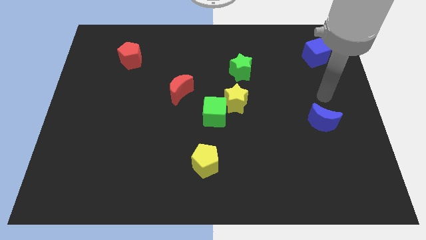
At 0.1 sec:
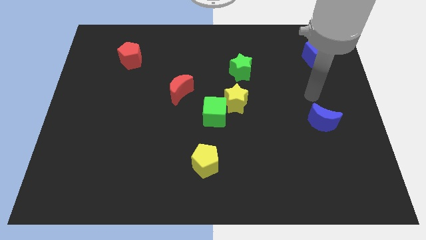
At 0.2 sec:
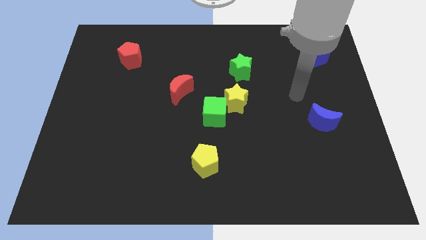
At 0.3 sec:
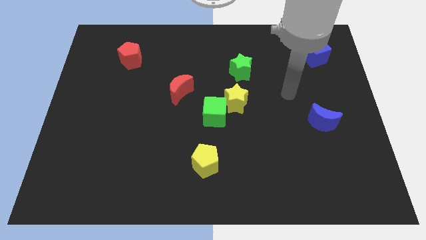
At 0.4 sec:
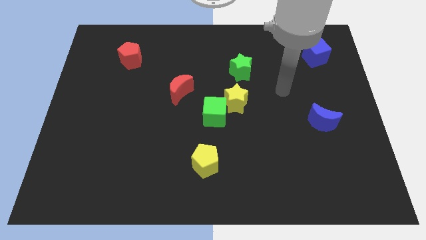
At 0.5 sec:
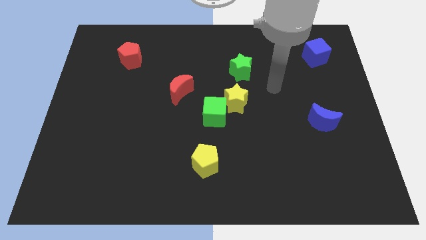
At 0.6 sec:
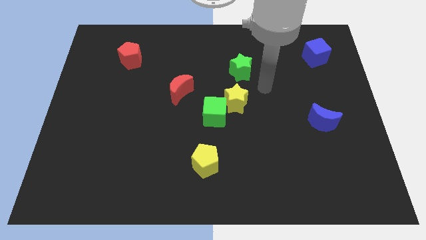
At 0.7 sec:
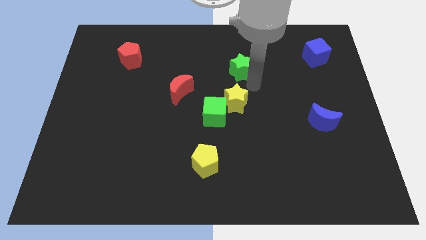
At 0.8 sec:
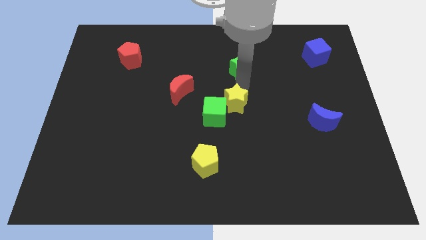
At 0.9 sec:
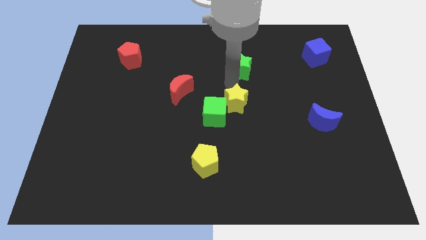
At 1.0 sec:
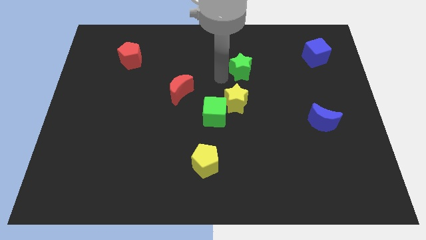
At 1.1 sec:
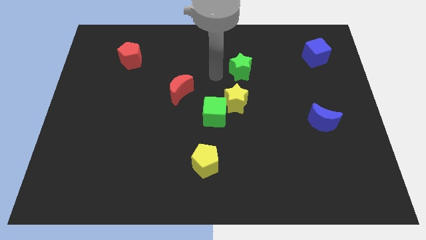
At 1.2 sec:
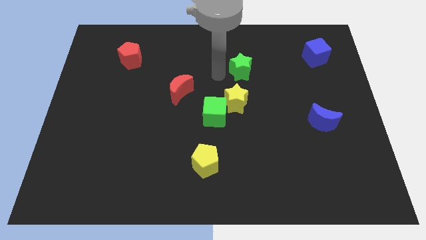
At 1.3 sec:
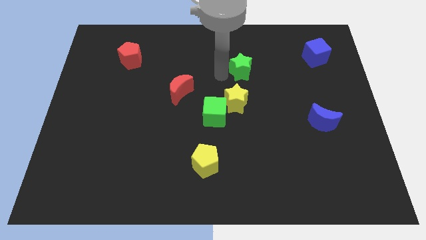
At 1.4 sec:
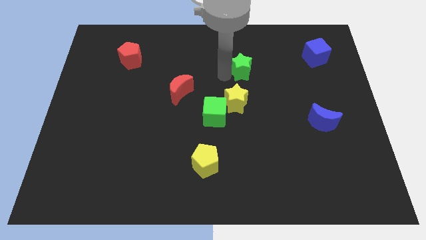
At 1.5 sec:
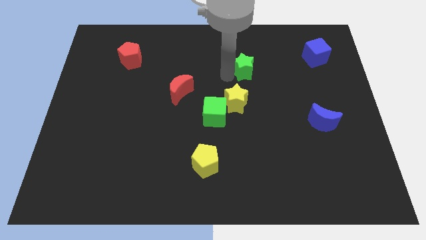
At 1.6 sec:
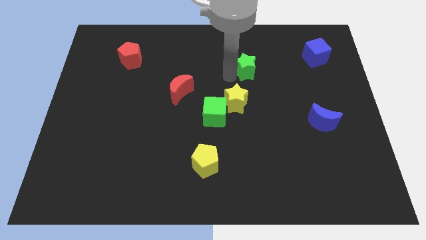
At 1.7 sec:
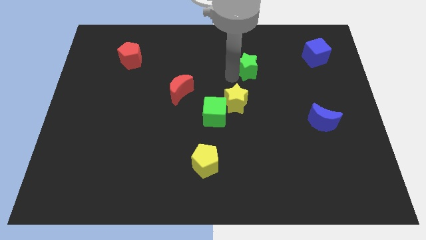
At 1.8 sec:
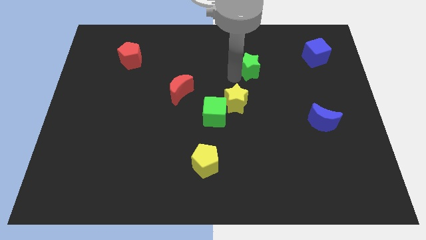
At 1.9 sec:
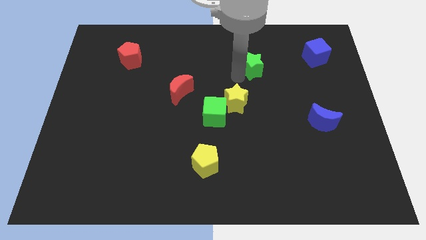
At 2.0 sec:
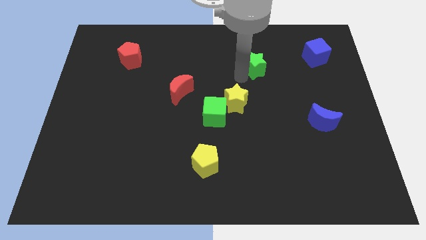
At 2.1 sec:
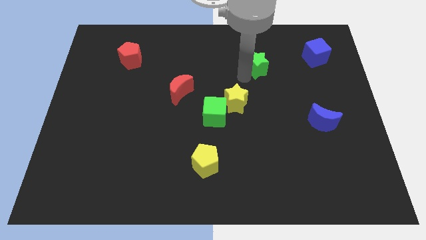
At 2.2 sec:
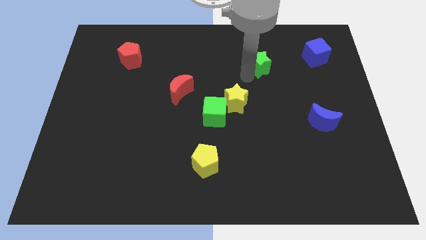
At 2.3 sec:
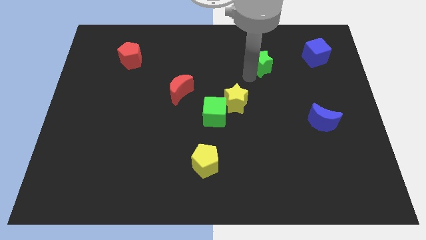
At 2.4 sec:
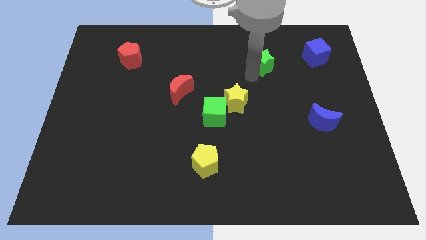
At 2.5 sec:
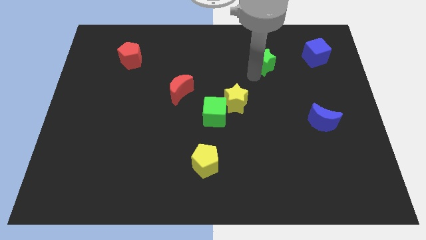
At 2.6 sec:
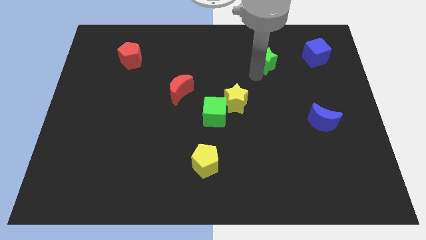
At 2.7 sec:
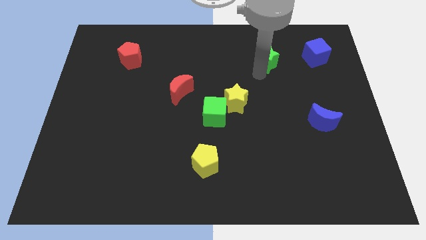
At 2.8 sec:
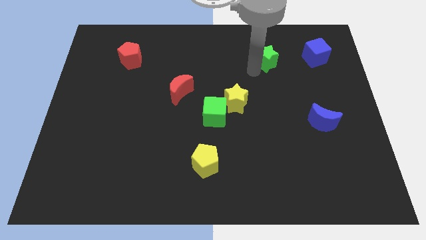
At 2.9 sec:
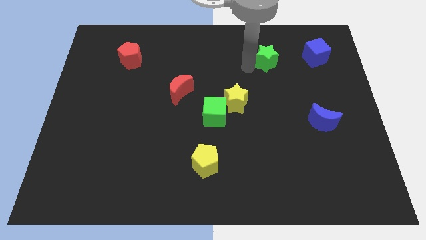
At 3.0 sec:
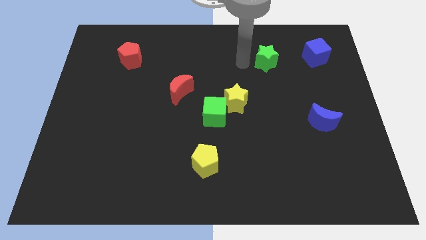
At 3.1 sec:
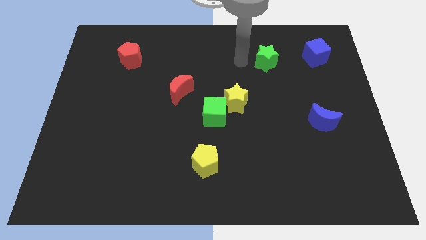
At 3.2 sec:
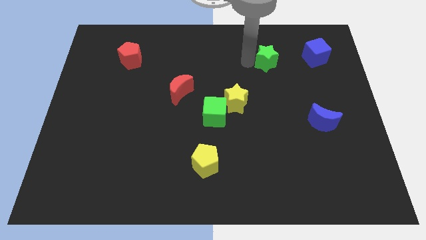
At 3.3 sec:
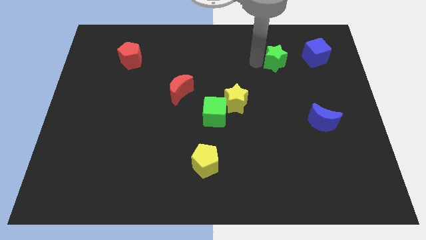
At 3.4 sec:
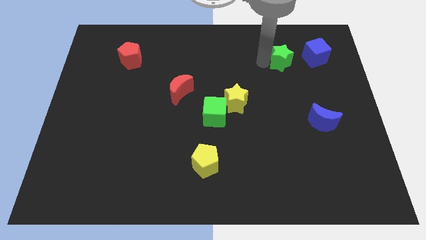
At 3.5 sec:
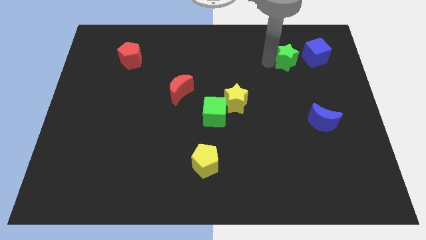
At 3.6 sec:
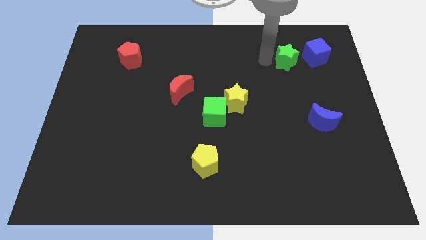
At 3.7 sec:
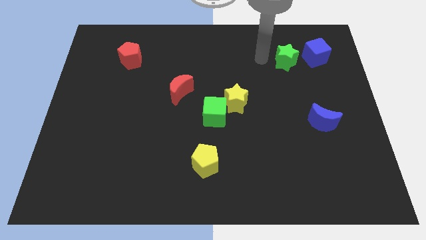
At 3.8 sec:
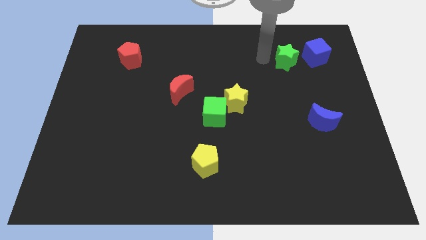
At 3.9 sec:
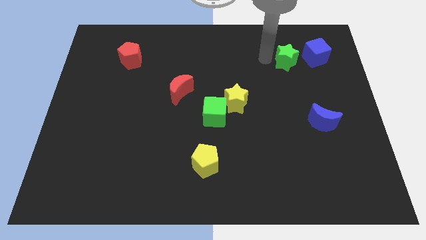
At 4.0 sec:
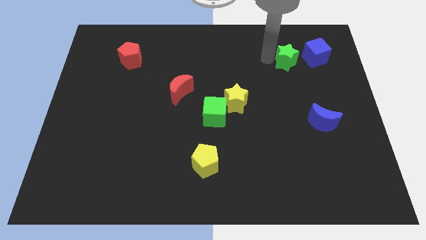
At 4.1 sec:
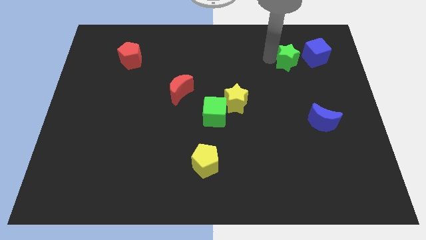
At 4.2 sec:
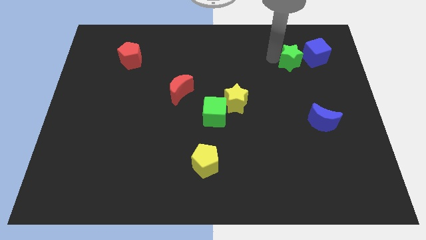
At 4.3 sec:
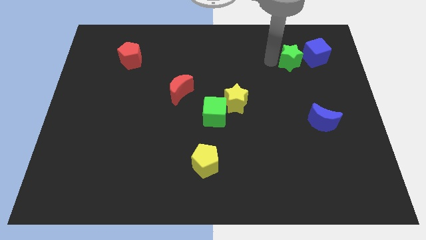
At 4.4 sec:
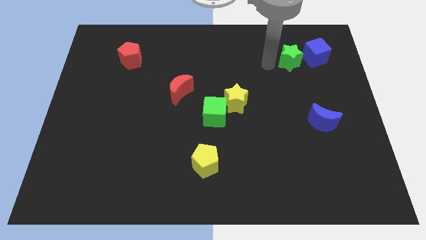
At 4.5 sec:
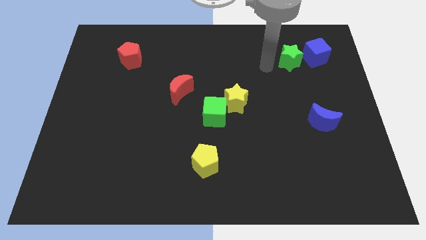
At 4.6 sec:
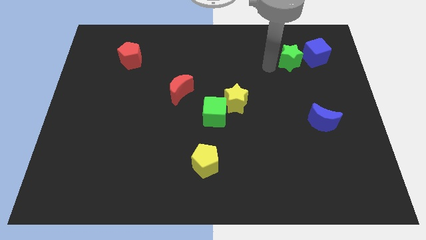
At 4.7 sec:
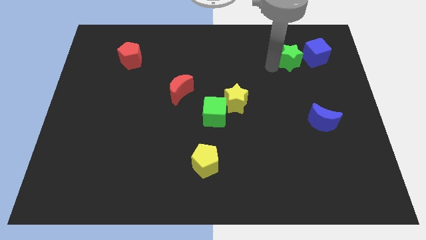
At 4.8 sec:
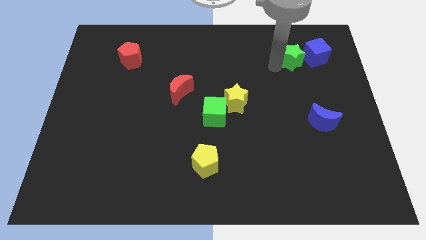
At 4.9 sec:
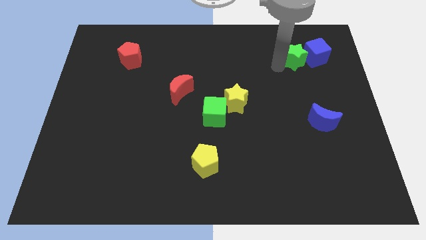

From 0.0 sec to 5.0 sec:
move the green star next to the blue cube

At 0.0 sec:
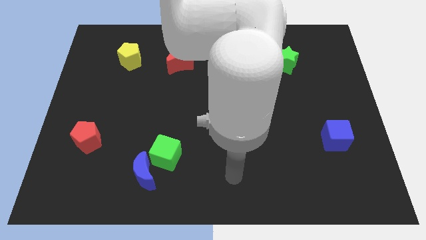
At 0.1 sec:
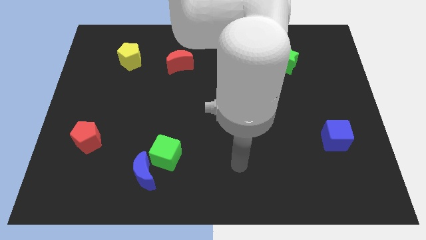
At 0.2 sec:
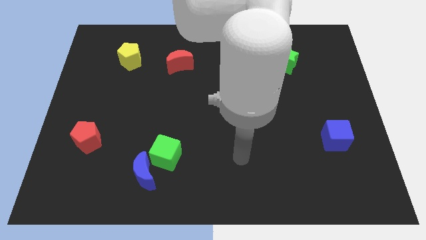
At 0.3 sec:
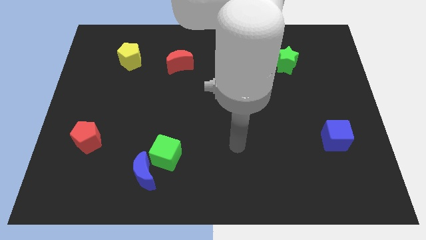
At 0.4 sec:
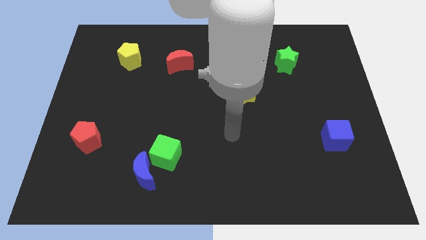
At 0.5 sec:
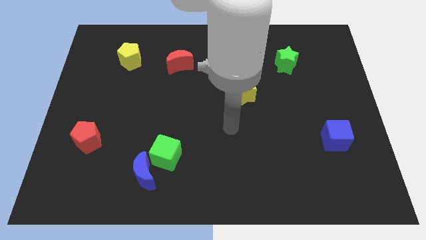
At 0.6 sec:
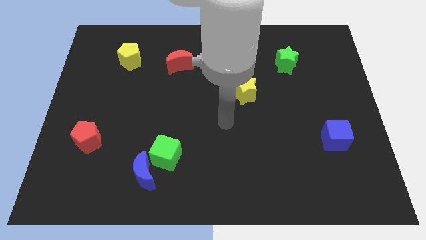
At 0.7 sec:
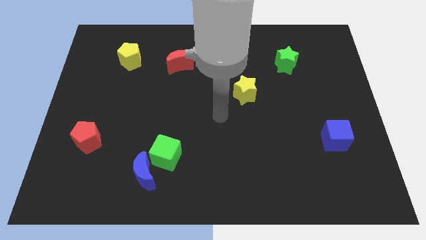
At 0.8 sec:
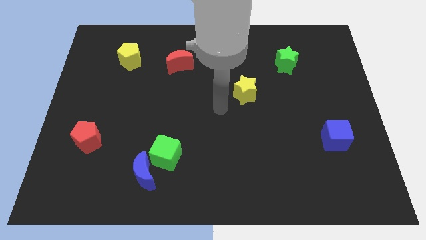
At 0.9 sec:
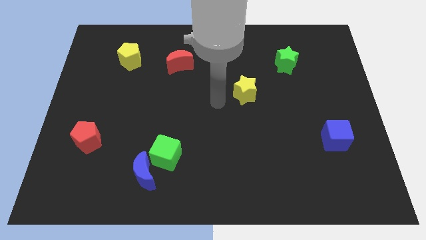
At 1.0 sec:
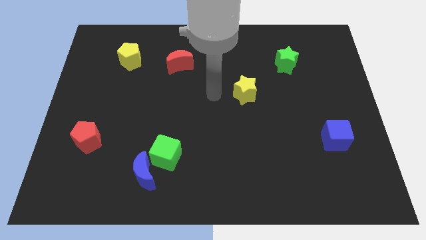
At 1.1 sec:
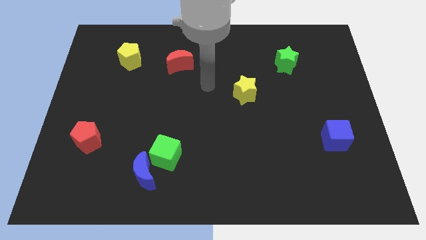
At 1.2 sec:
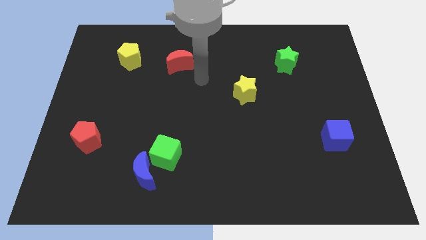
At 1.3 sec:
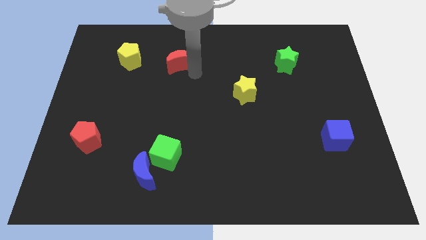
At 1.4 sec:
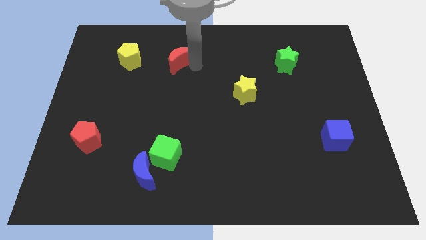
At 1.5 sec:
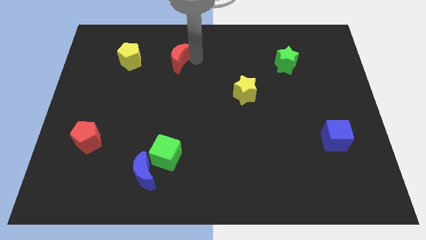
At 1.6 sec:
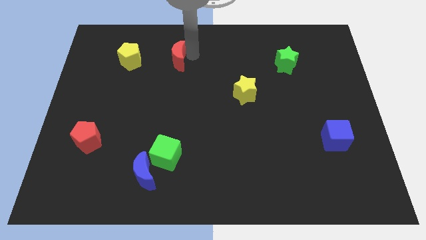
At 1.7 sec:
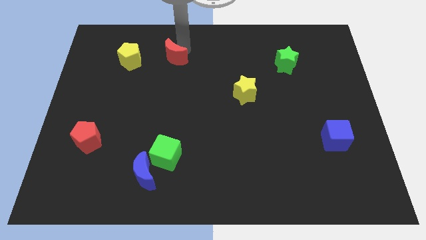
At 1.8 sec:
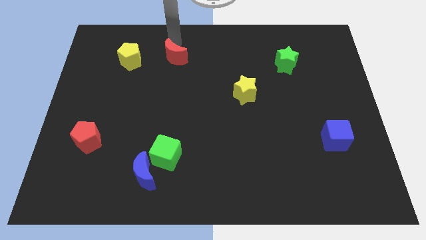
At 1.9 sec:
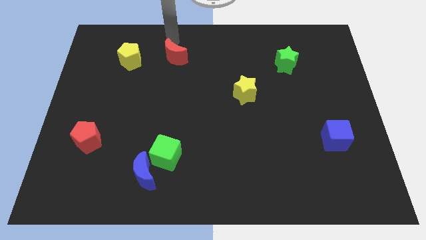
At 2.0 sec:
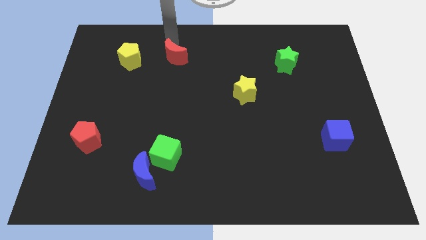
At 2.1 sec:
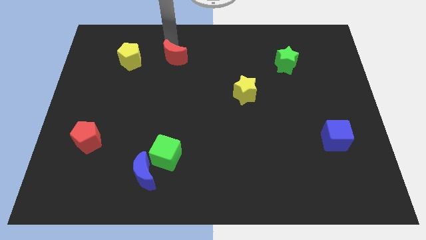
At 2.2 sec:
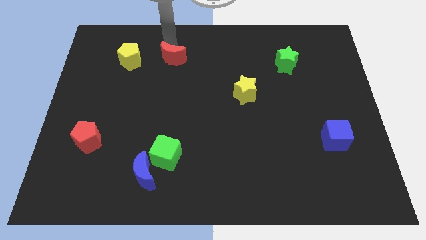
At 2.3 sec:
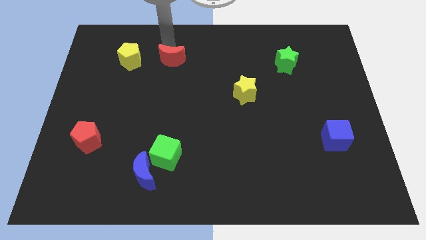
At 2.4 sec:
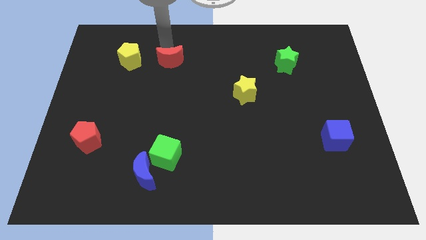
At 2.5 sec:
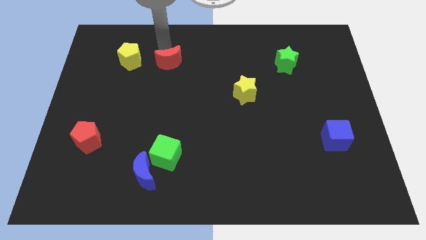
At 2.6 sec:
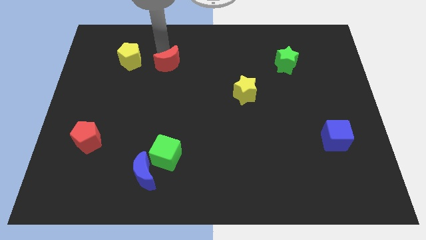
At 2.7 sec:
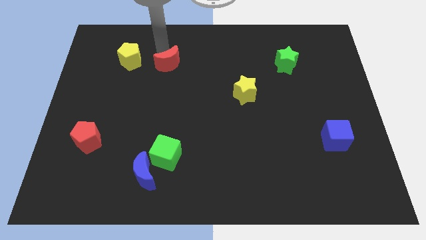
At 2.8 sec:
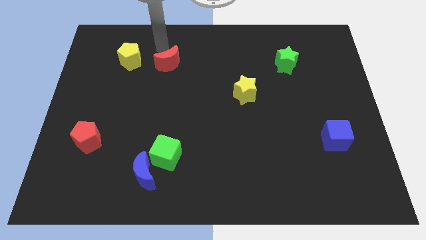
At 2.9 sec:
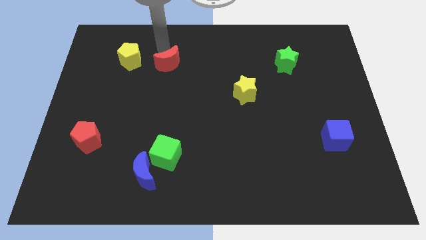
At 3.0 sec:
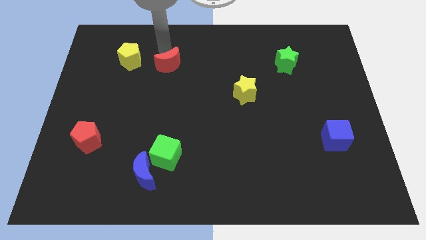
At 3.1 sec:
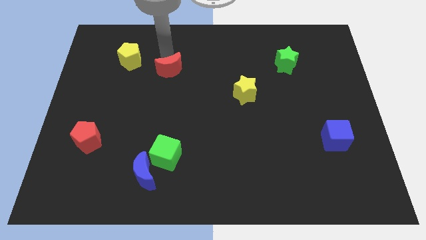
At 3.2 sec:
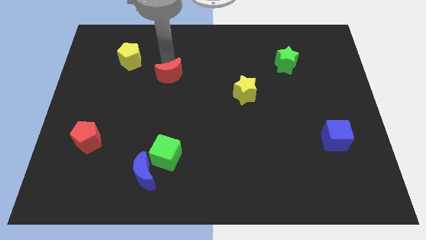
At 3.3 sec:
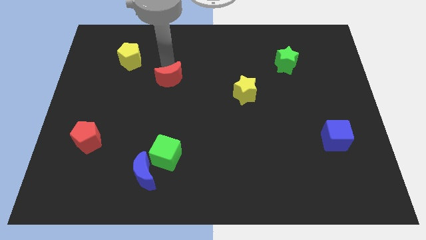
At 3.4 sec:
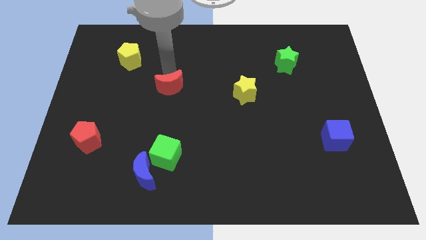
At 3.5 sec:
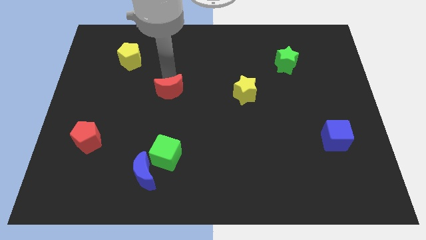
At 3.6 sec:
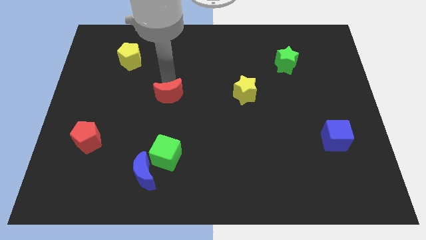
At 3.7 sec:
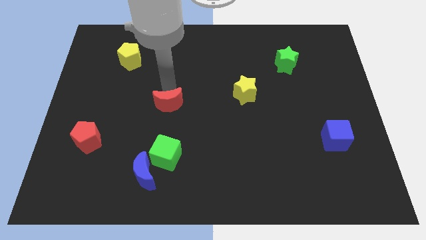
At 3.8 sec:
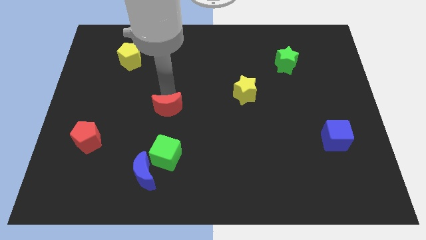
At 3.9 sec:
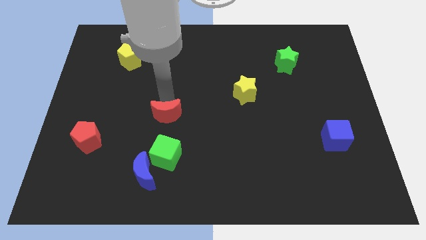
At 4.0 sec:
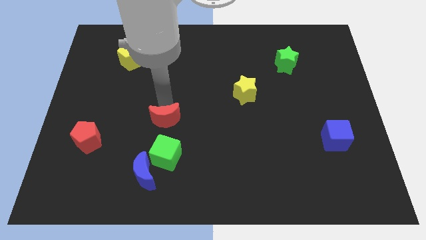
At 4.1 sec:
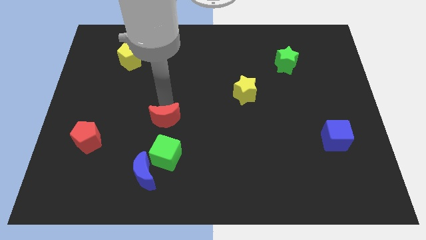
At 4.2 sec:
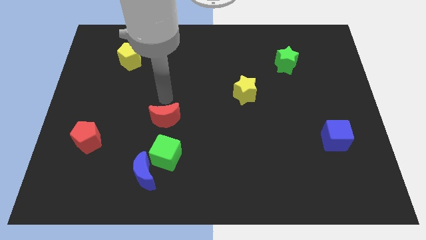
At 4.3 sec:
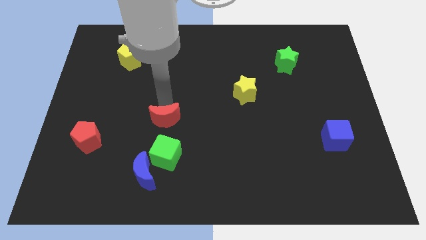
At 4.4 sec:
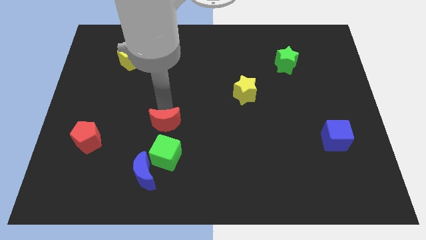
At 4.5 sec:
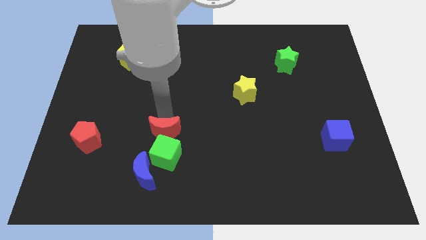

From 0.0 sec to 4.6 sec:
move the red moon to the green cube
